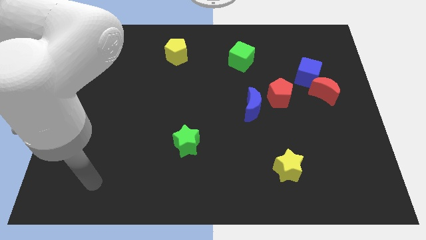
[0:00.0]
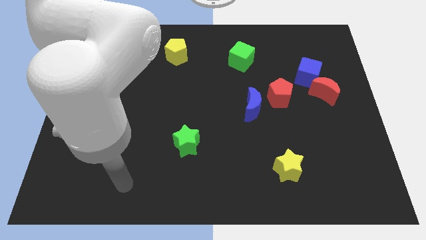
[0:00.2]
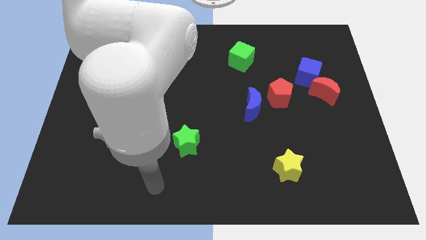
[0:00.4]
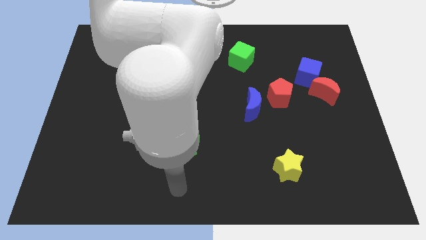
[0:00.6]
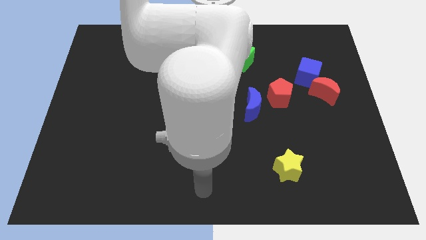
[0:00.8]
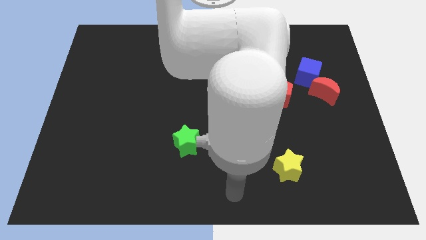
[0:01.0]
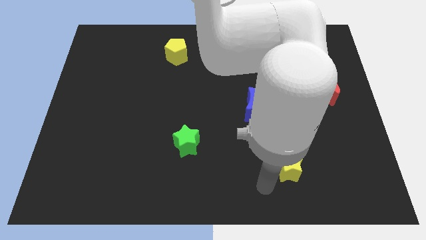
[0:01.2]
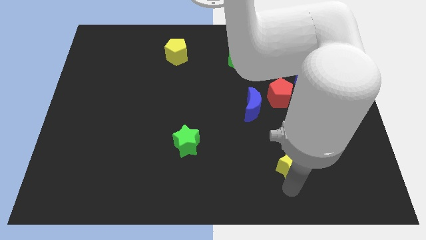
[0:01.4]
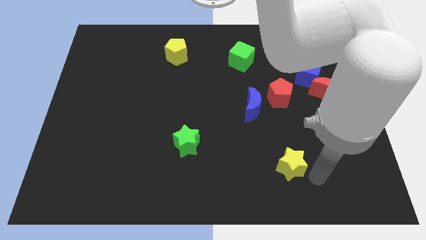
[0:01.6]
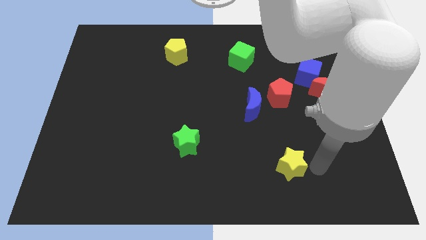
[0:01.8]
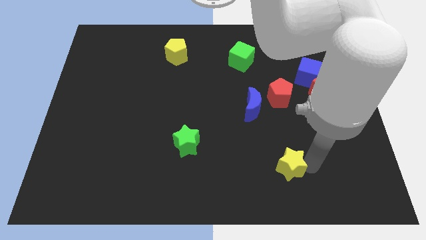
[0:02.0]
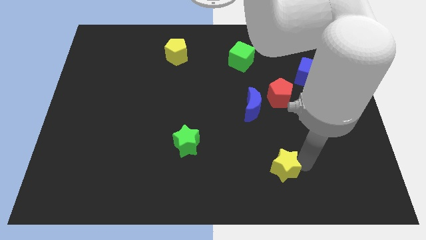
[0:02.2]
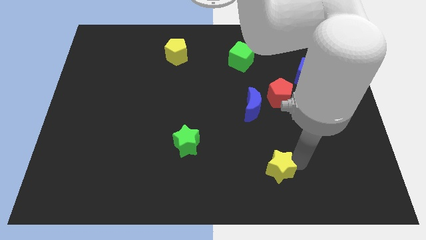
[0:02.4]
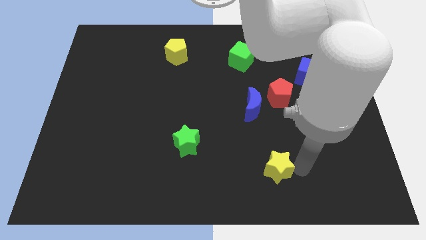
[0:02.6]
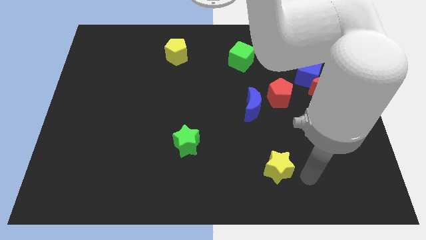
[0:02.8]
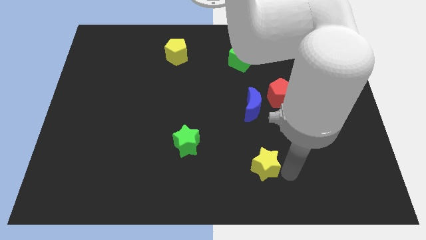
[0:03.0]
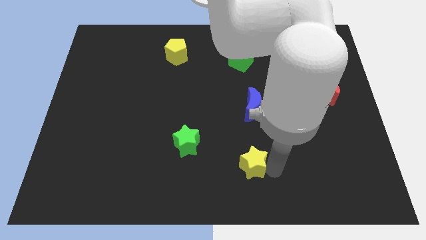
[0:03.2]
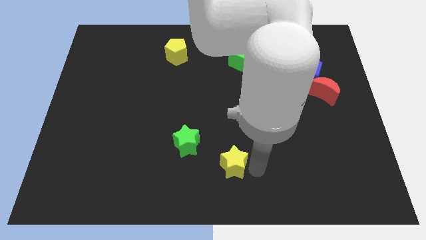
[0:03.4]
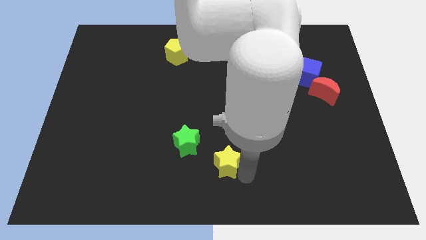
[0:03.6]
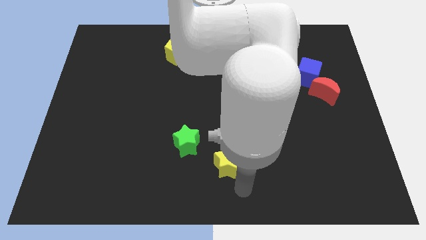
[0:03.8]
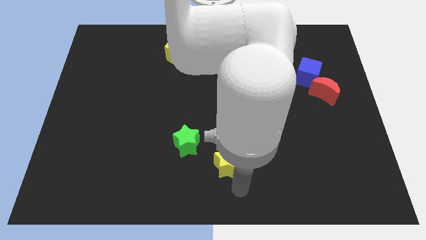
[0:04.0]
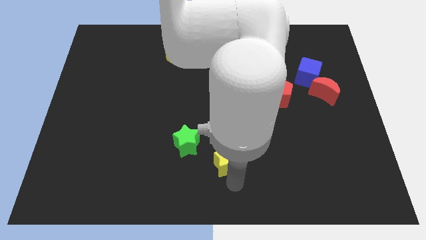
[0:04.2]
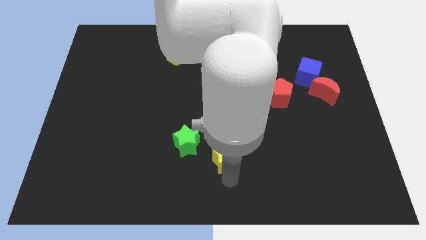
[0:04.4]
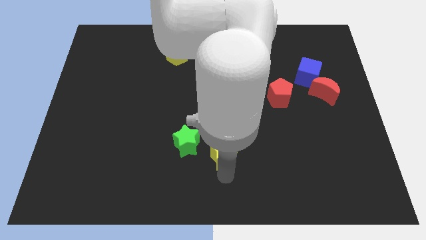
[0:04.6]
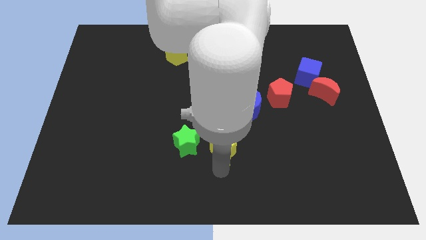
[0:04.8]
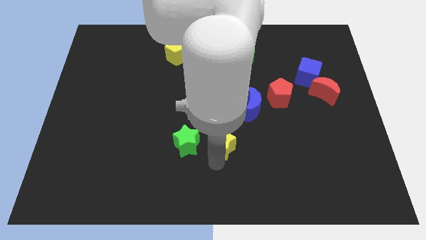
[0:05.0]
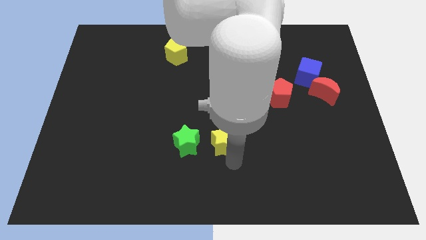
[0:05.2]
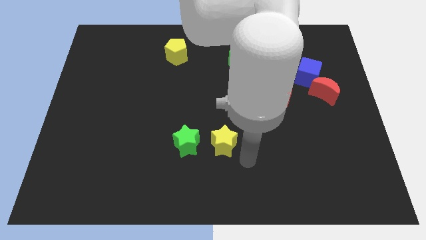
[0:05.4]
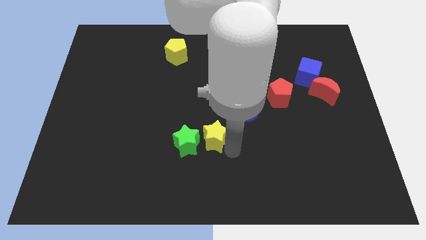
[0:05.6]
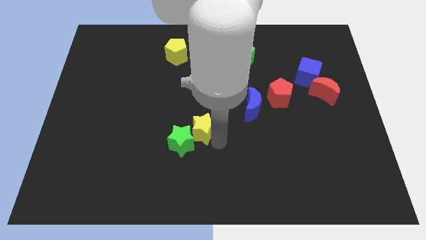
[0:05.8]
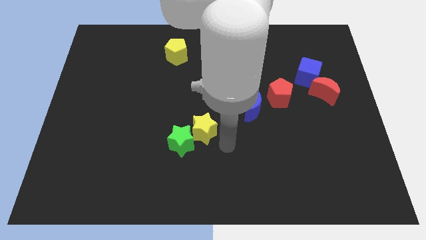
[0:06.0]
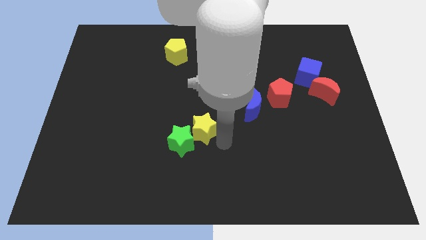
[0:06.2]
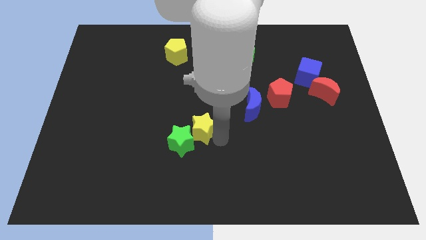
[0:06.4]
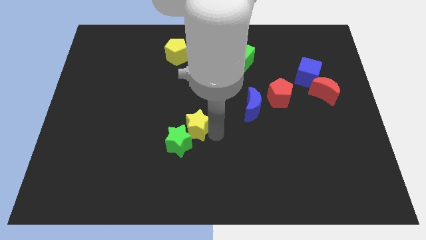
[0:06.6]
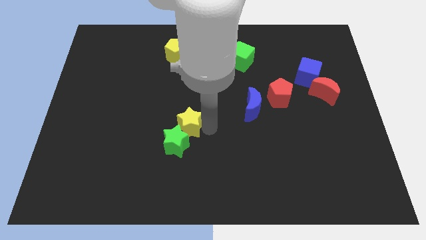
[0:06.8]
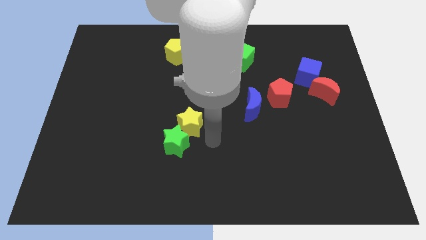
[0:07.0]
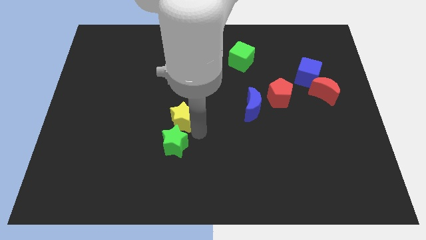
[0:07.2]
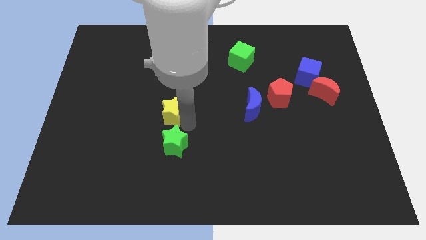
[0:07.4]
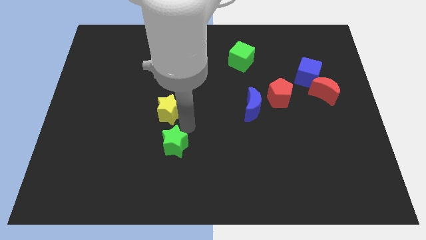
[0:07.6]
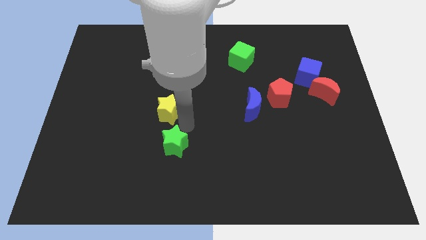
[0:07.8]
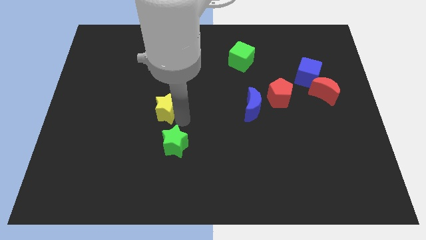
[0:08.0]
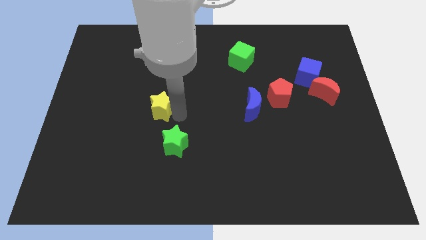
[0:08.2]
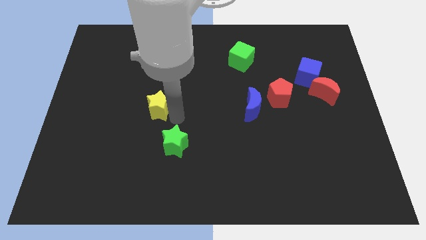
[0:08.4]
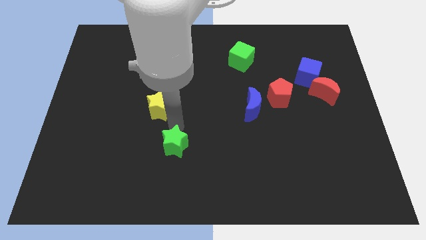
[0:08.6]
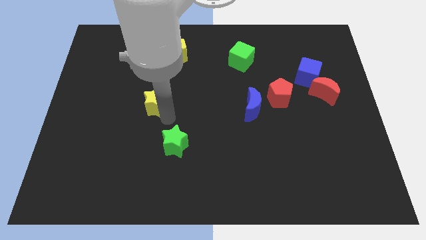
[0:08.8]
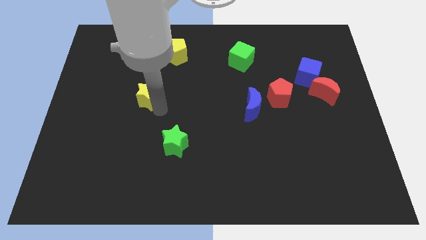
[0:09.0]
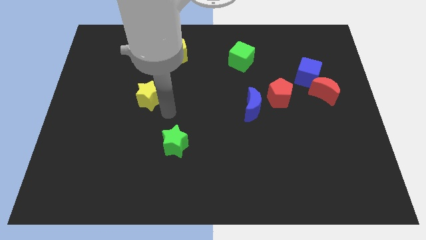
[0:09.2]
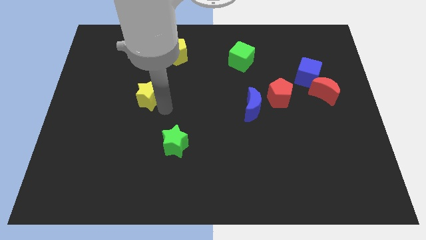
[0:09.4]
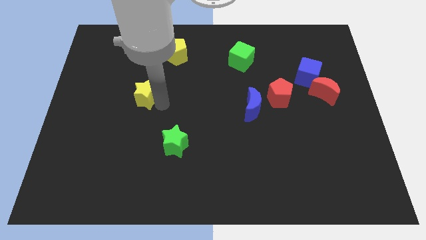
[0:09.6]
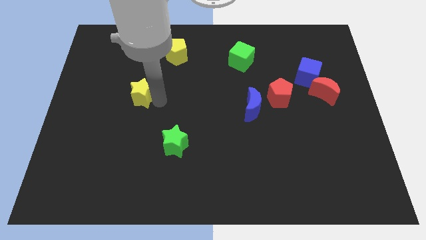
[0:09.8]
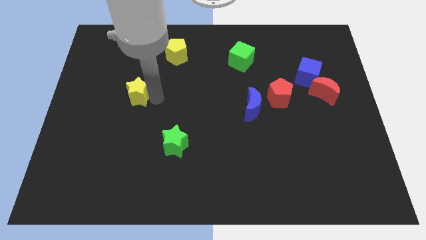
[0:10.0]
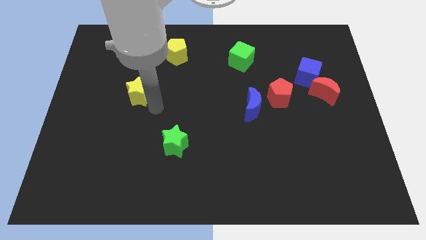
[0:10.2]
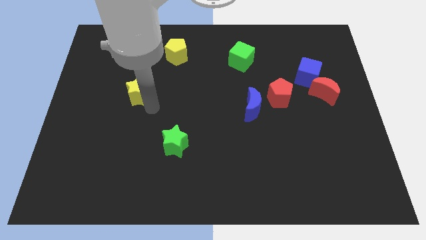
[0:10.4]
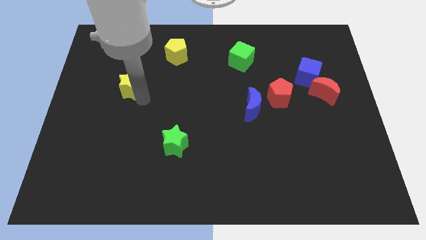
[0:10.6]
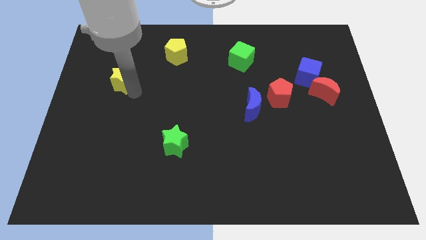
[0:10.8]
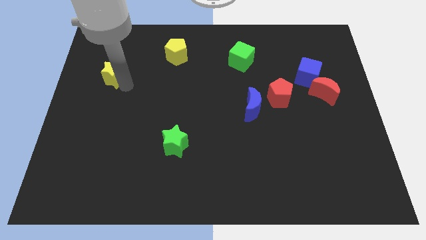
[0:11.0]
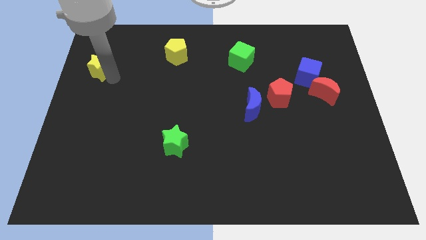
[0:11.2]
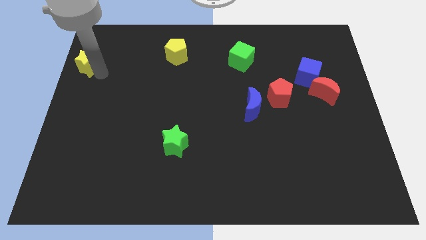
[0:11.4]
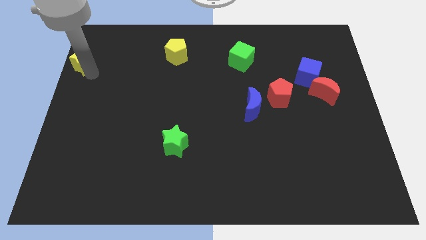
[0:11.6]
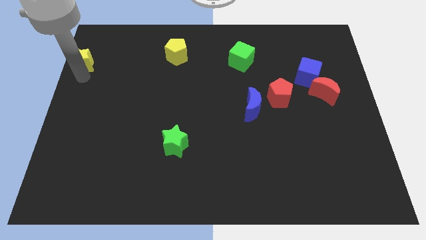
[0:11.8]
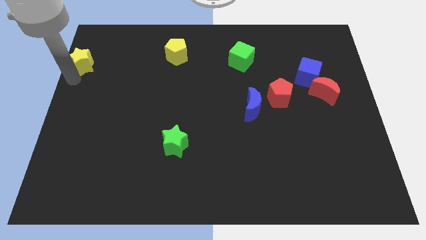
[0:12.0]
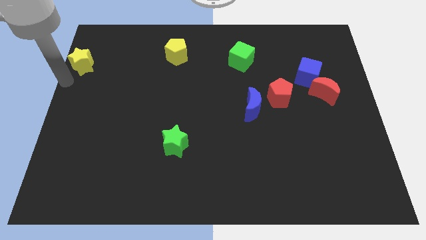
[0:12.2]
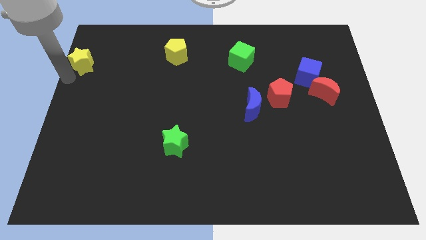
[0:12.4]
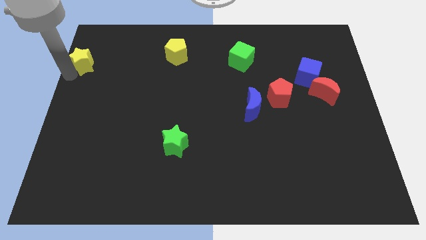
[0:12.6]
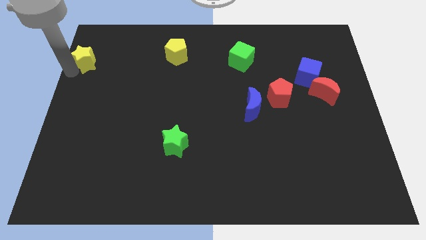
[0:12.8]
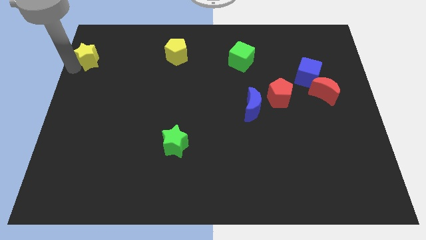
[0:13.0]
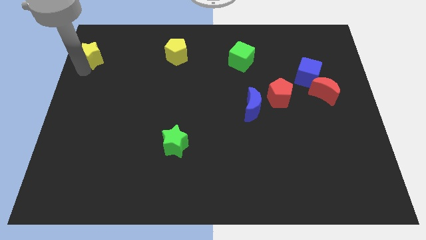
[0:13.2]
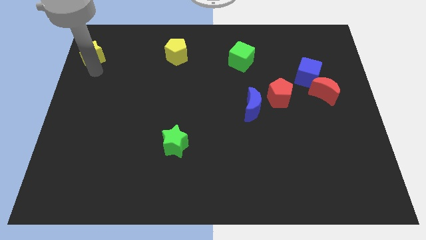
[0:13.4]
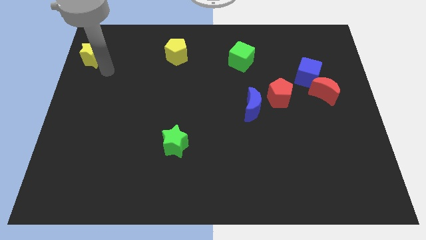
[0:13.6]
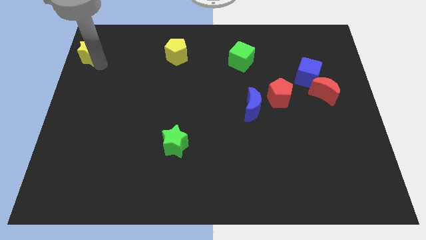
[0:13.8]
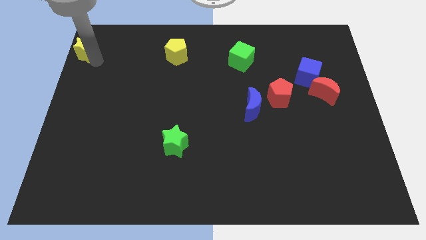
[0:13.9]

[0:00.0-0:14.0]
slide the yellow star to the upper left corner

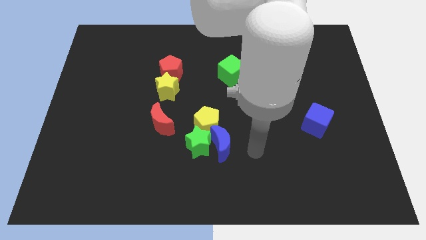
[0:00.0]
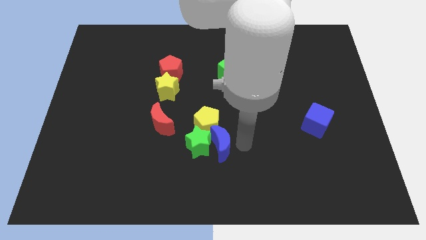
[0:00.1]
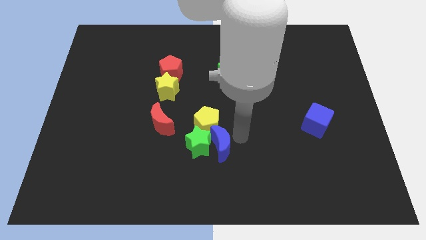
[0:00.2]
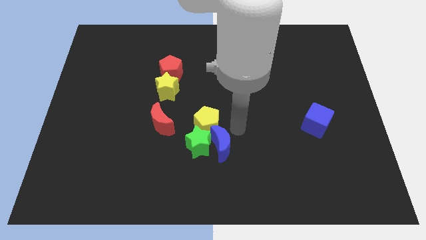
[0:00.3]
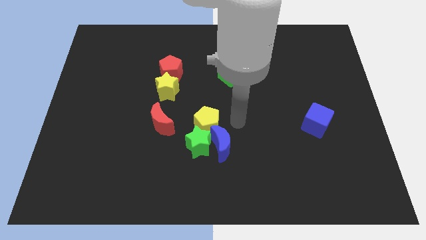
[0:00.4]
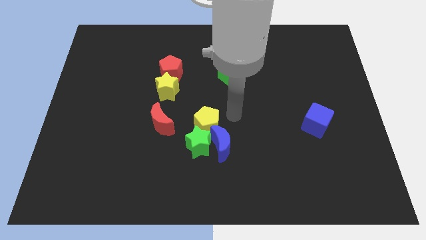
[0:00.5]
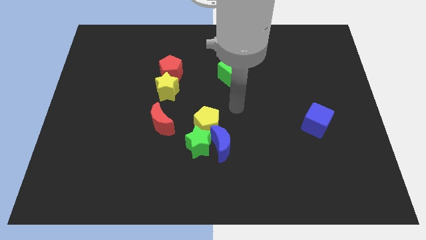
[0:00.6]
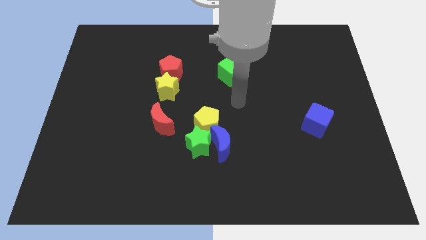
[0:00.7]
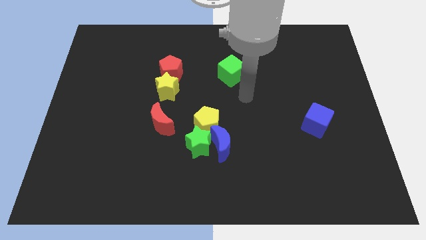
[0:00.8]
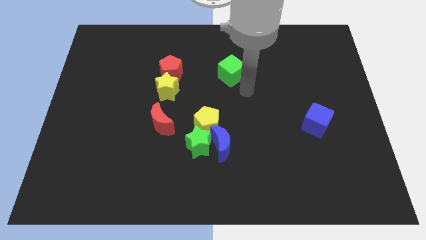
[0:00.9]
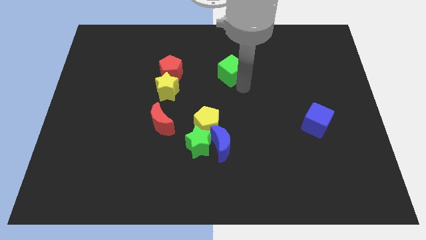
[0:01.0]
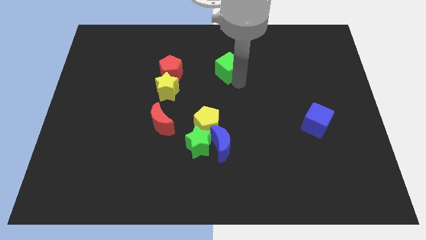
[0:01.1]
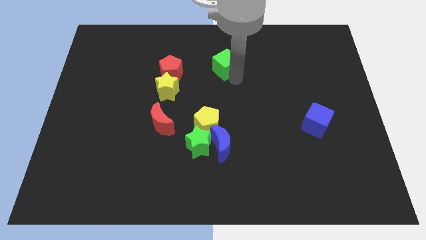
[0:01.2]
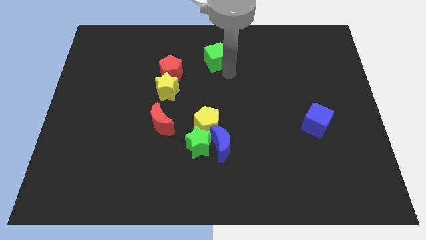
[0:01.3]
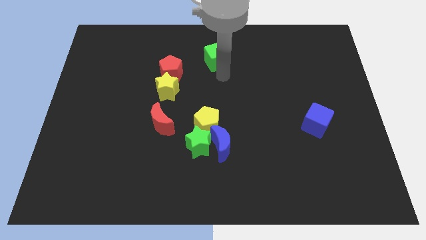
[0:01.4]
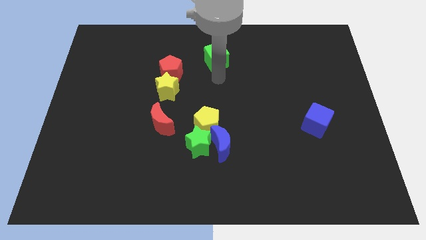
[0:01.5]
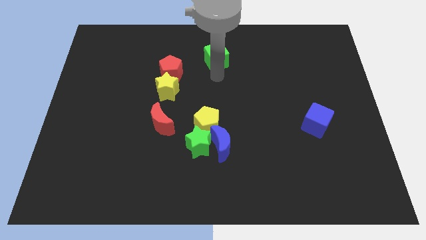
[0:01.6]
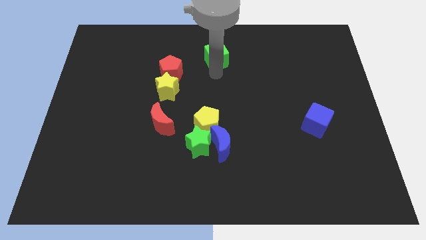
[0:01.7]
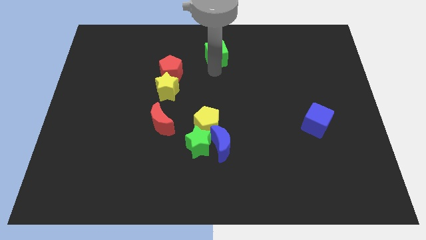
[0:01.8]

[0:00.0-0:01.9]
move the green cube to the towards your base
